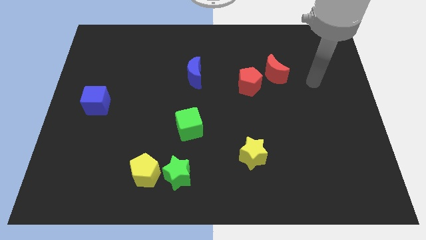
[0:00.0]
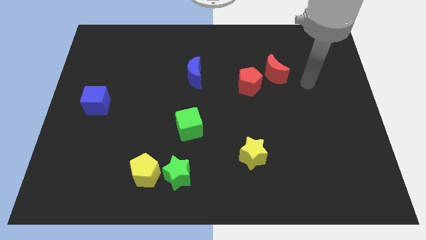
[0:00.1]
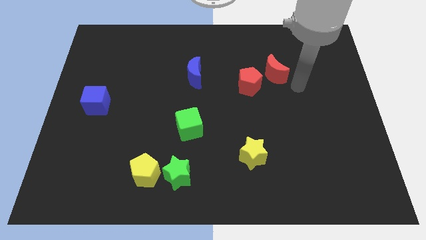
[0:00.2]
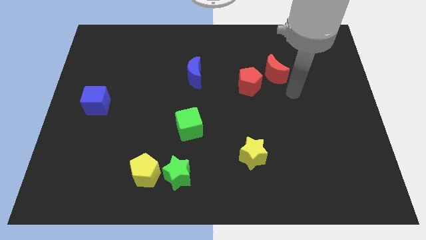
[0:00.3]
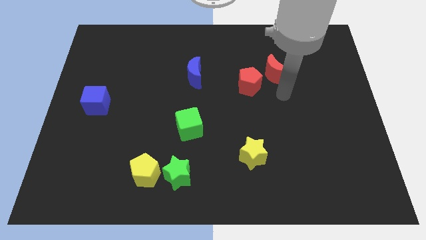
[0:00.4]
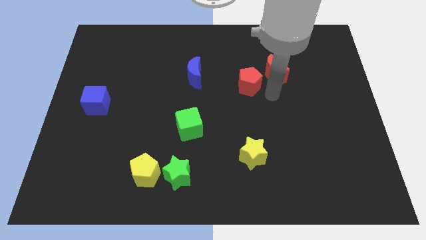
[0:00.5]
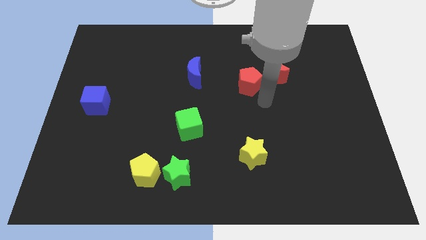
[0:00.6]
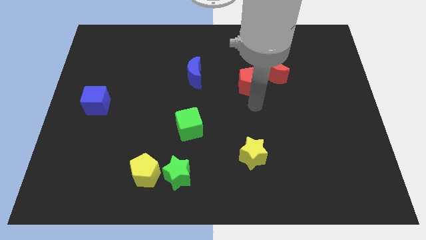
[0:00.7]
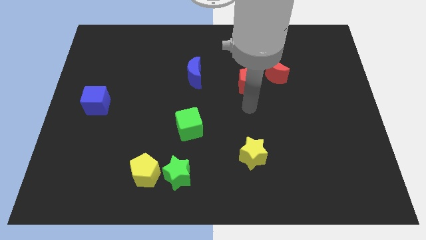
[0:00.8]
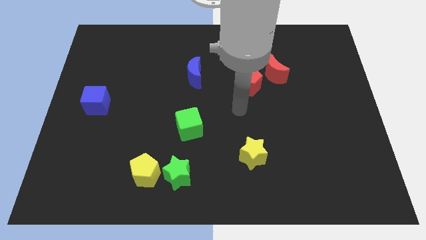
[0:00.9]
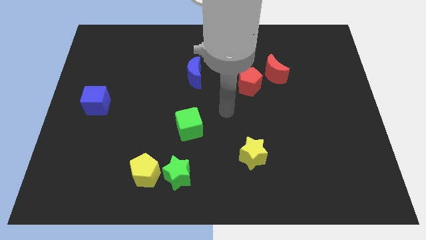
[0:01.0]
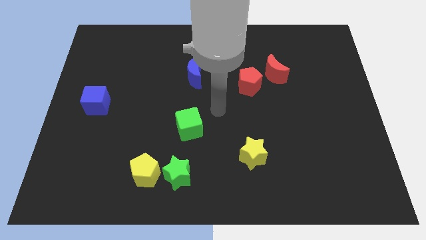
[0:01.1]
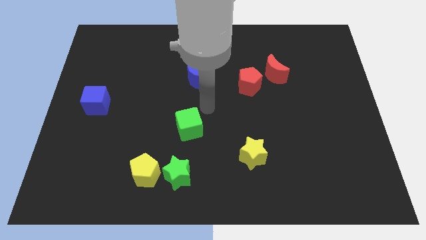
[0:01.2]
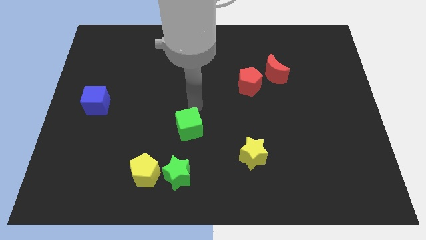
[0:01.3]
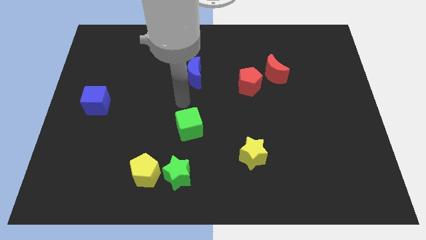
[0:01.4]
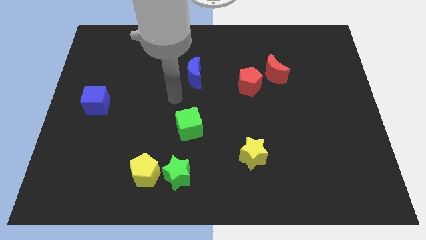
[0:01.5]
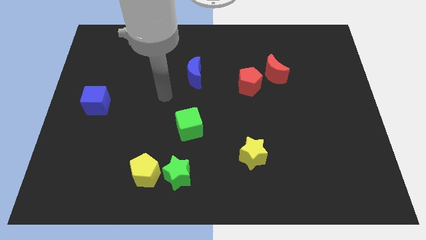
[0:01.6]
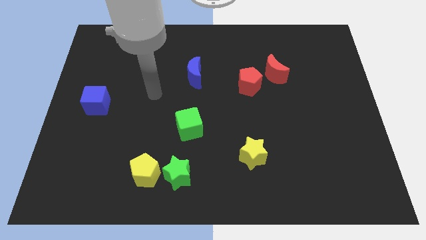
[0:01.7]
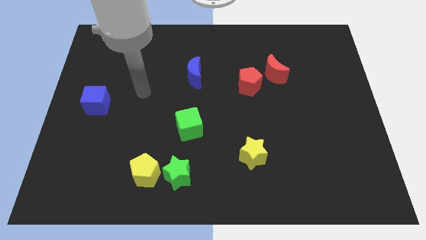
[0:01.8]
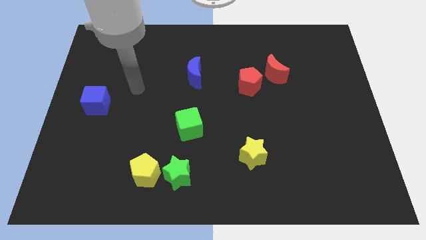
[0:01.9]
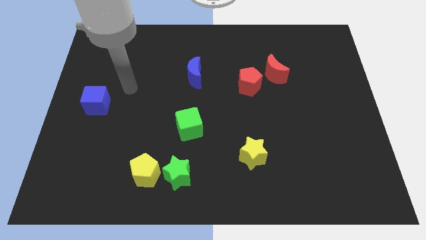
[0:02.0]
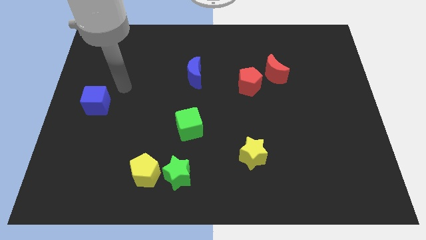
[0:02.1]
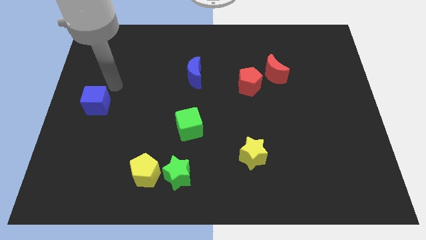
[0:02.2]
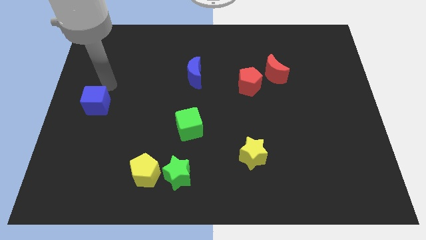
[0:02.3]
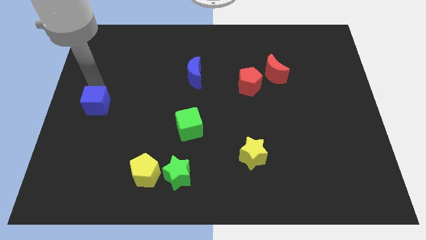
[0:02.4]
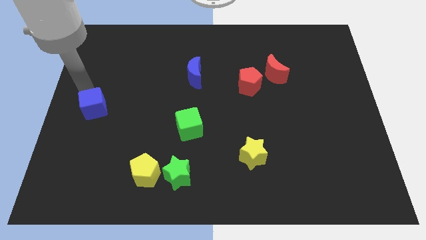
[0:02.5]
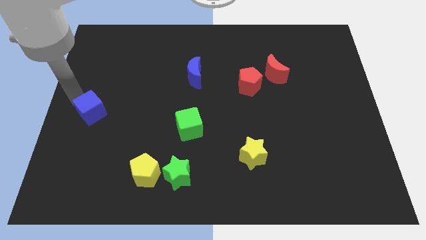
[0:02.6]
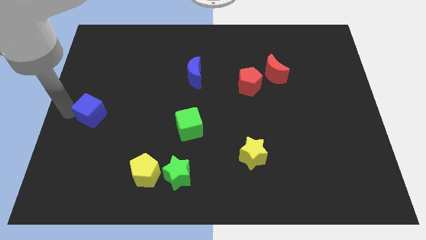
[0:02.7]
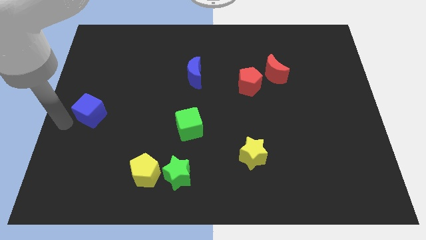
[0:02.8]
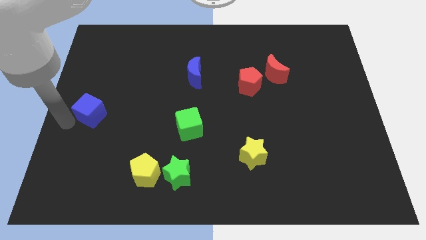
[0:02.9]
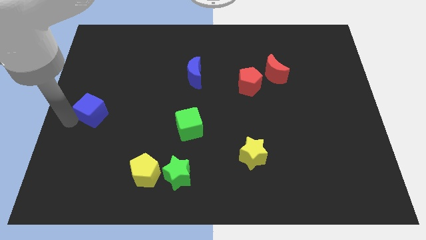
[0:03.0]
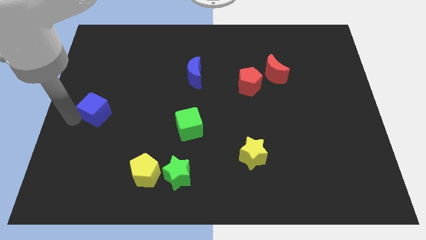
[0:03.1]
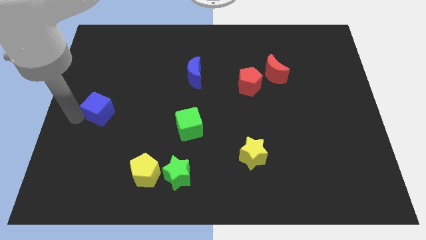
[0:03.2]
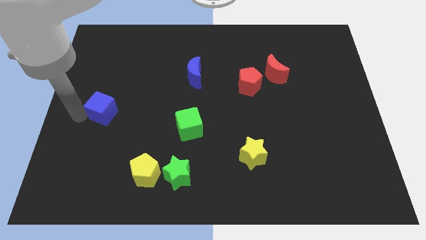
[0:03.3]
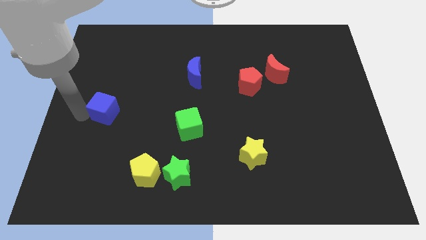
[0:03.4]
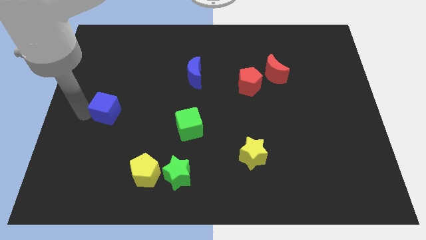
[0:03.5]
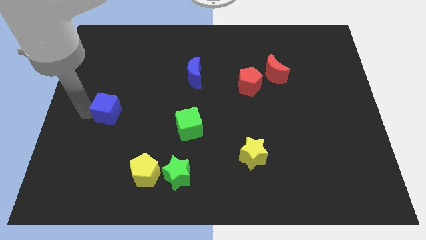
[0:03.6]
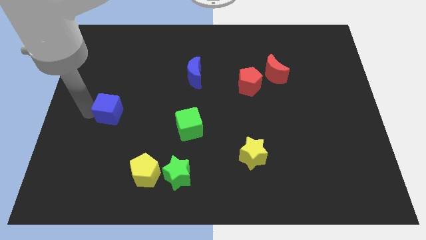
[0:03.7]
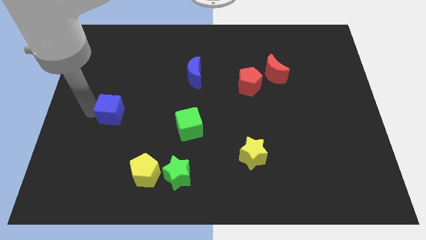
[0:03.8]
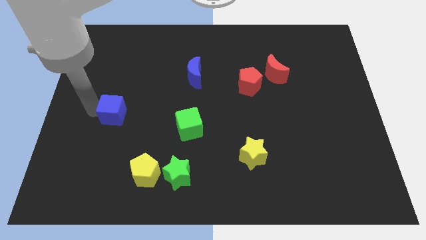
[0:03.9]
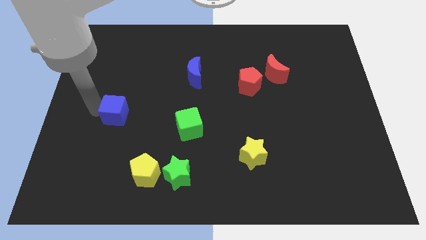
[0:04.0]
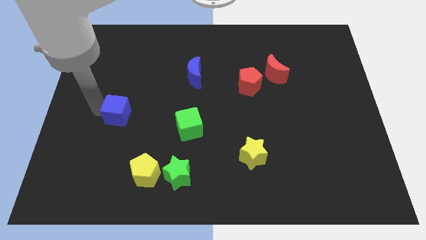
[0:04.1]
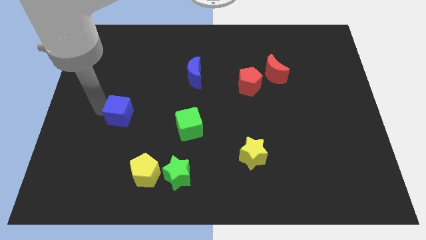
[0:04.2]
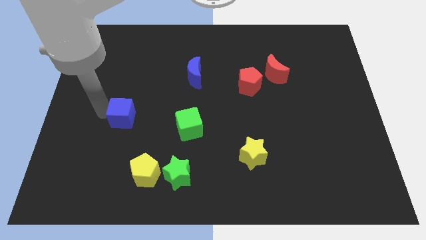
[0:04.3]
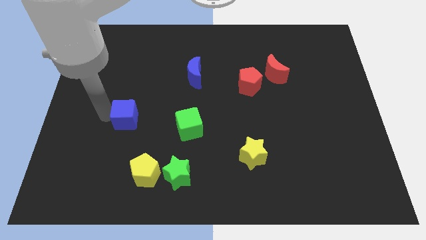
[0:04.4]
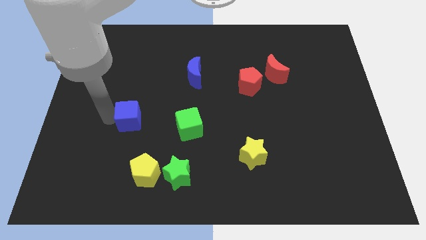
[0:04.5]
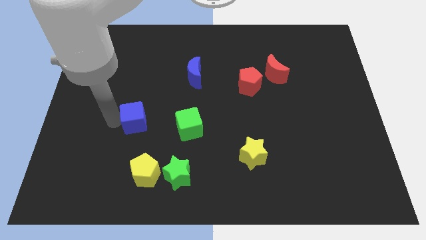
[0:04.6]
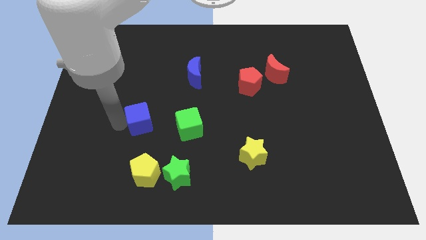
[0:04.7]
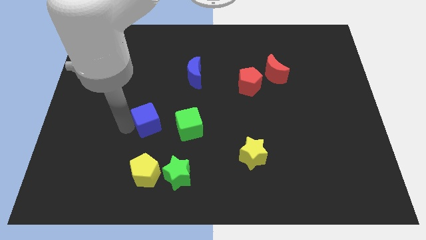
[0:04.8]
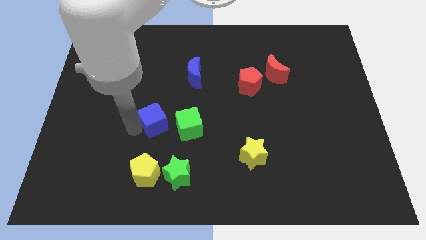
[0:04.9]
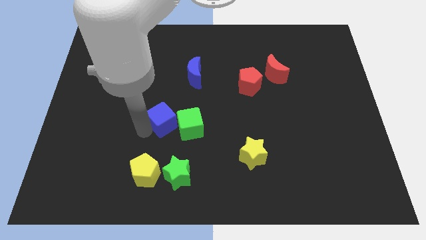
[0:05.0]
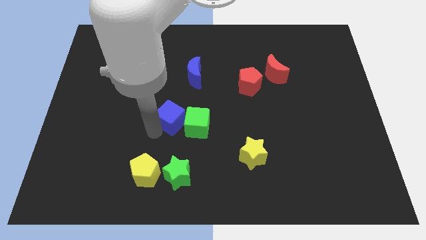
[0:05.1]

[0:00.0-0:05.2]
push the blue cube to the center

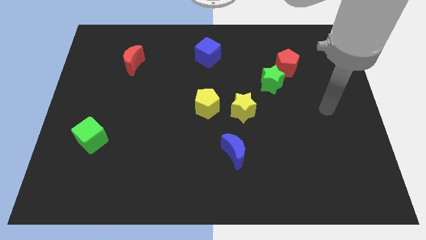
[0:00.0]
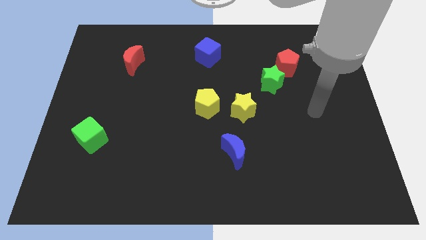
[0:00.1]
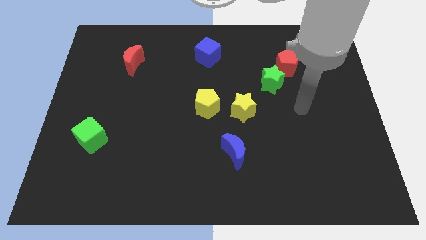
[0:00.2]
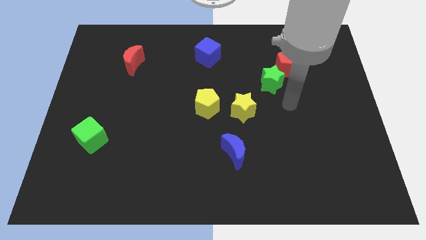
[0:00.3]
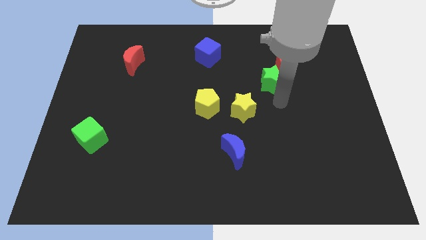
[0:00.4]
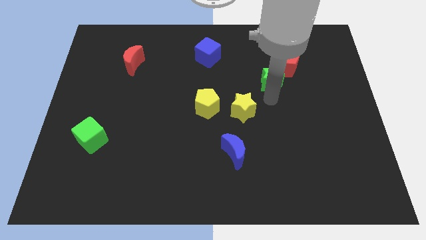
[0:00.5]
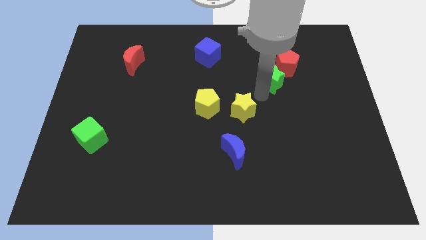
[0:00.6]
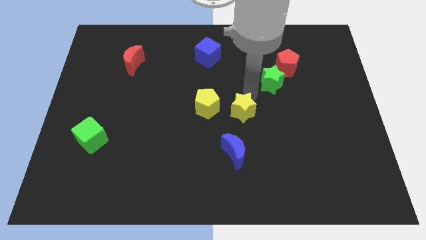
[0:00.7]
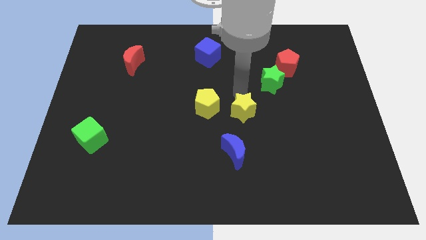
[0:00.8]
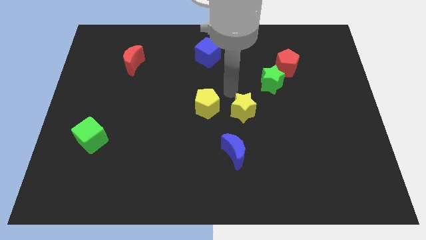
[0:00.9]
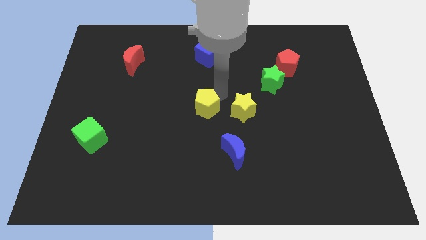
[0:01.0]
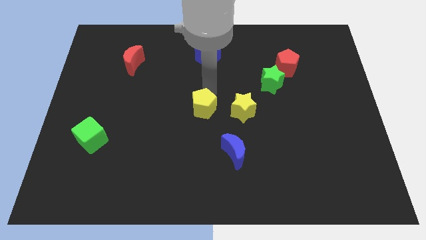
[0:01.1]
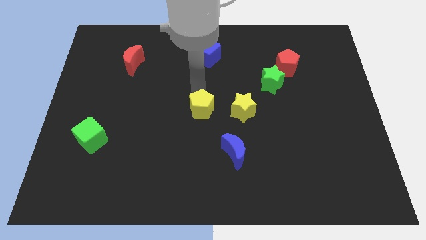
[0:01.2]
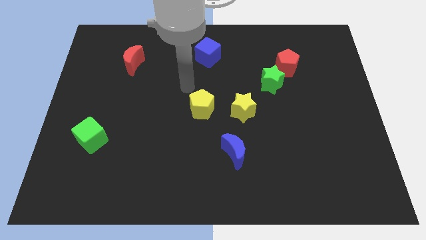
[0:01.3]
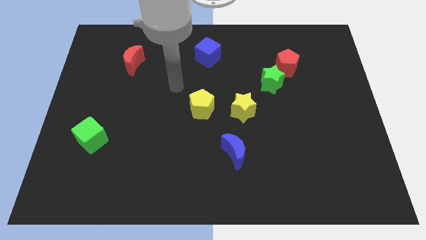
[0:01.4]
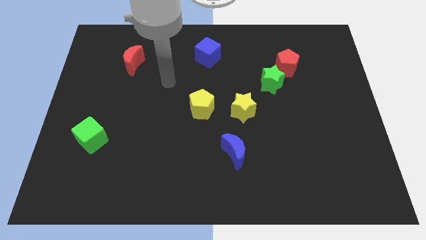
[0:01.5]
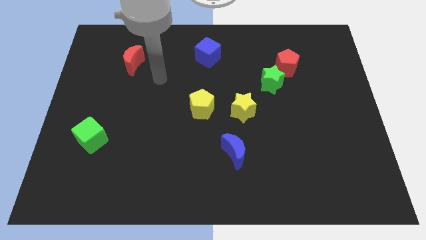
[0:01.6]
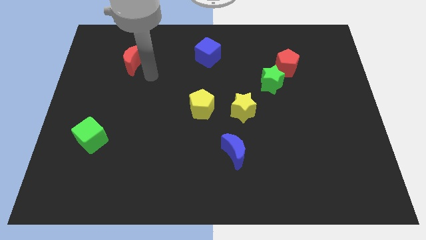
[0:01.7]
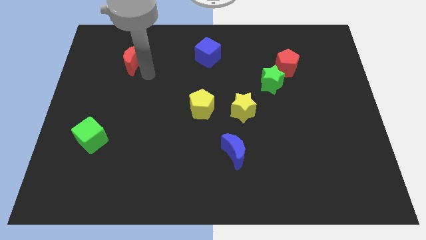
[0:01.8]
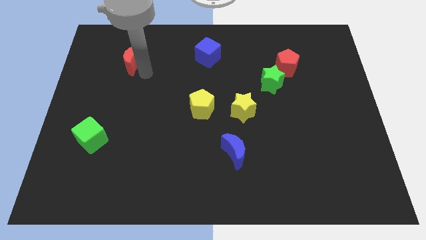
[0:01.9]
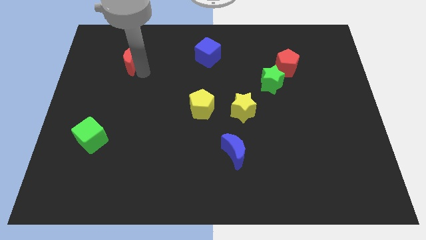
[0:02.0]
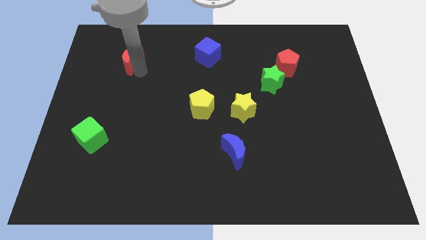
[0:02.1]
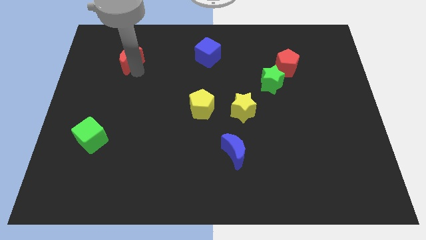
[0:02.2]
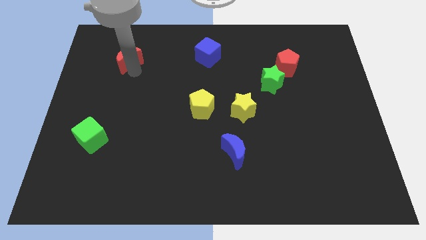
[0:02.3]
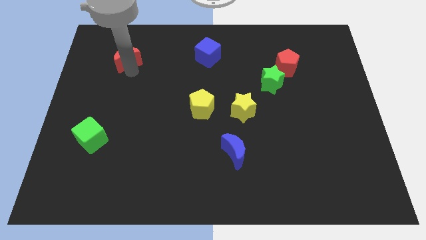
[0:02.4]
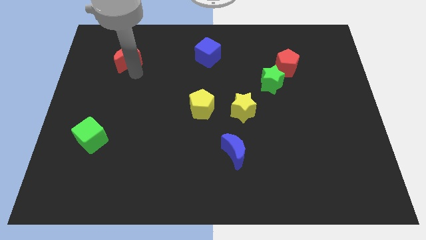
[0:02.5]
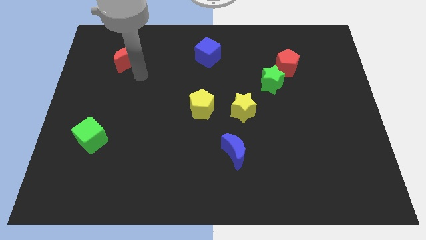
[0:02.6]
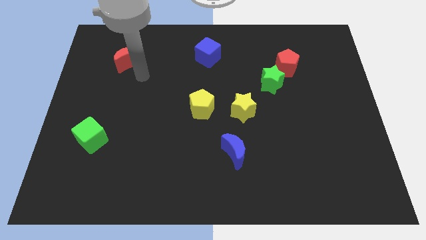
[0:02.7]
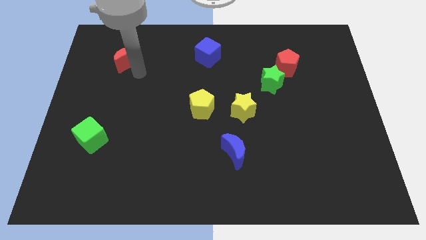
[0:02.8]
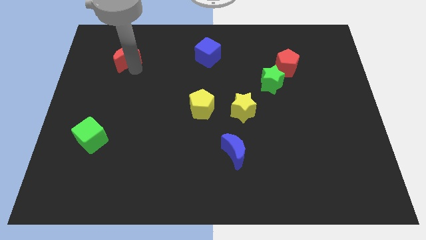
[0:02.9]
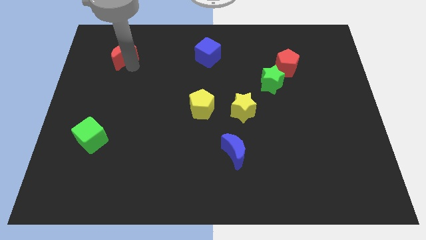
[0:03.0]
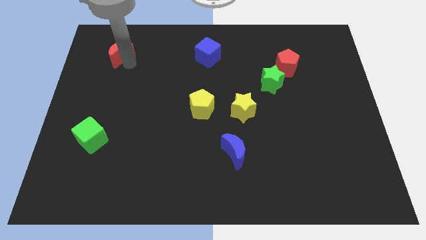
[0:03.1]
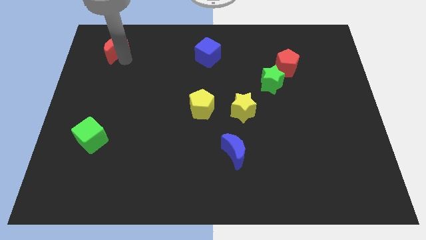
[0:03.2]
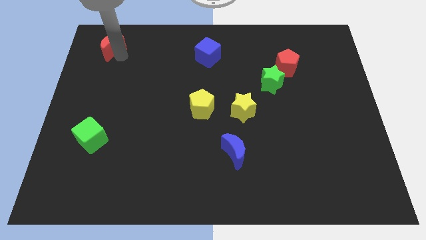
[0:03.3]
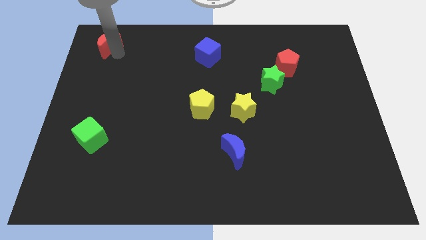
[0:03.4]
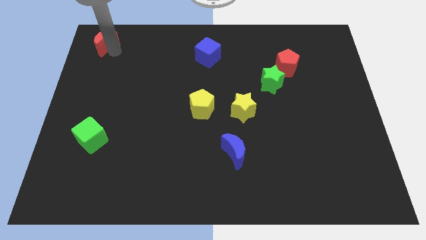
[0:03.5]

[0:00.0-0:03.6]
push the red moon to the upper left corner
